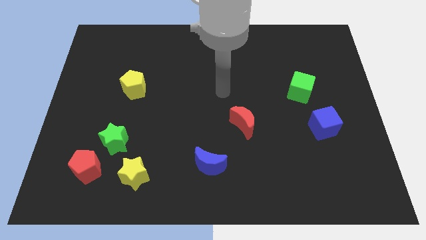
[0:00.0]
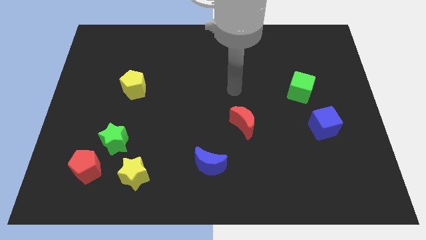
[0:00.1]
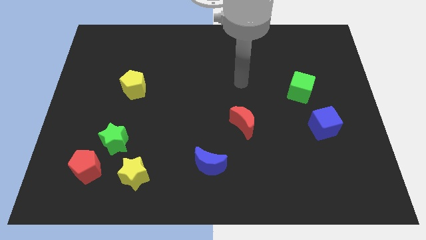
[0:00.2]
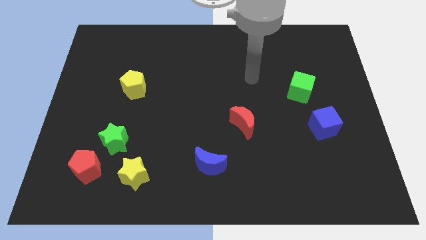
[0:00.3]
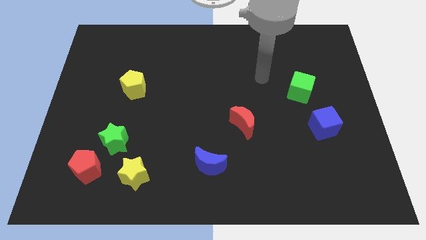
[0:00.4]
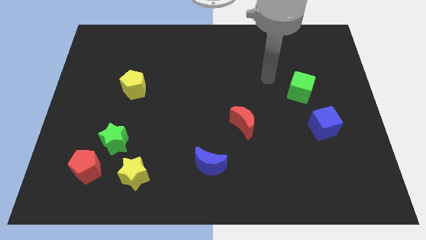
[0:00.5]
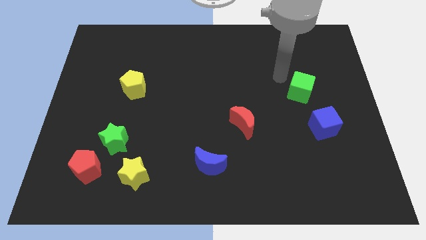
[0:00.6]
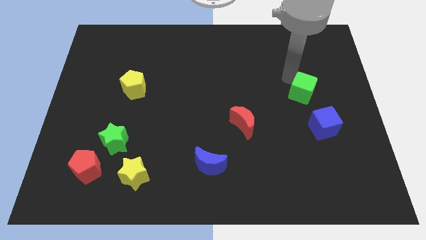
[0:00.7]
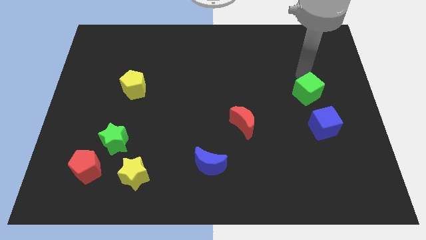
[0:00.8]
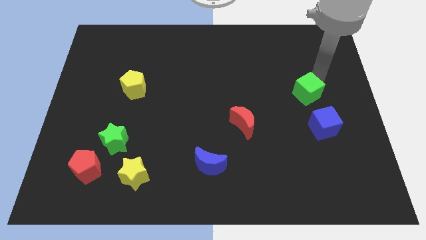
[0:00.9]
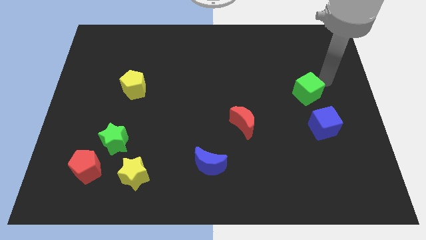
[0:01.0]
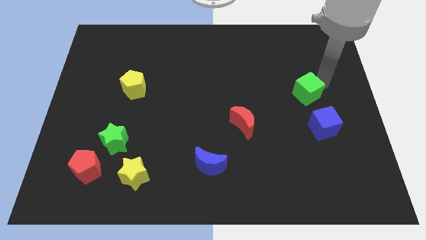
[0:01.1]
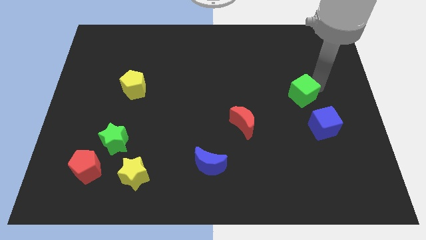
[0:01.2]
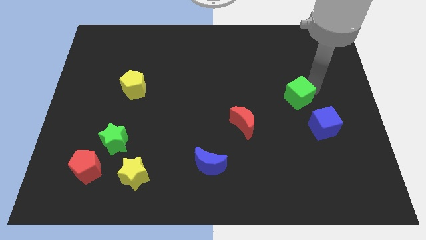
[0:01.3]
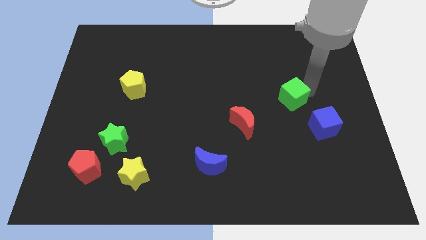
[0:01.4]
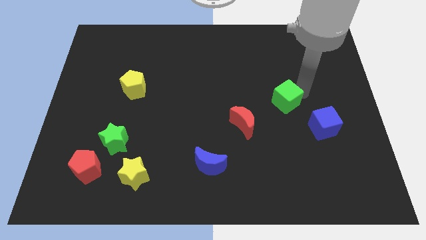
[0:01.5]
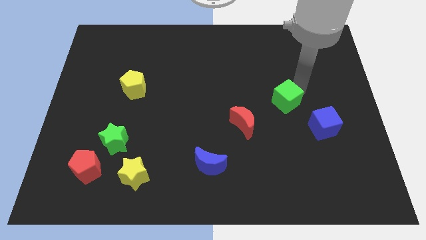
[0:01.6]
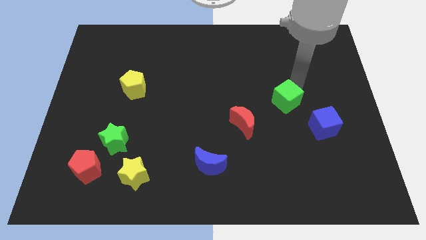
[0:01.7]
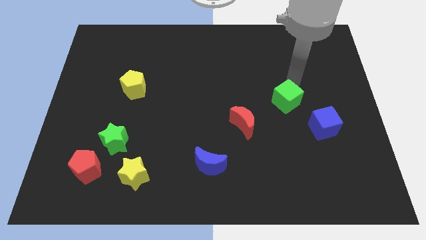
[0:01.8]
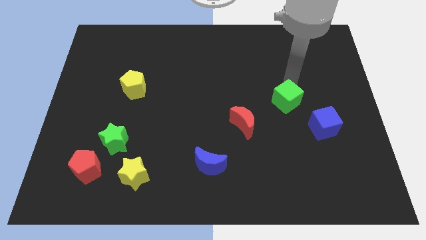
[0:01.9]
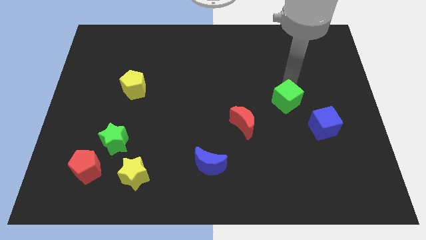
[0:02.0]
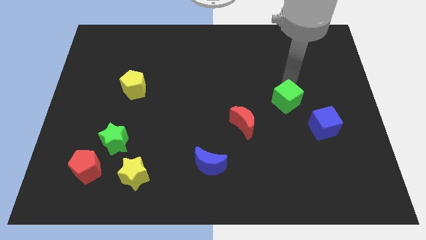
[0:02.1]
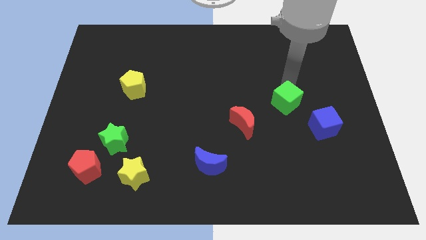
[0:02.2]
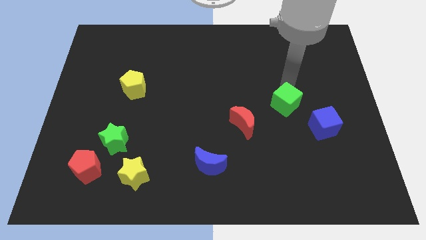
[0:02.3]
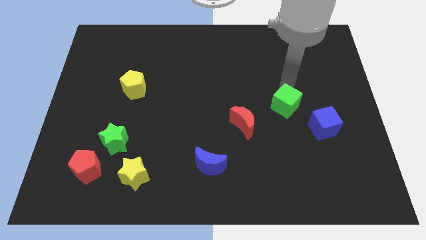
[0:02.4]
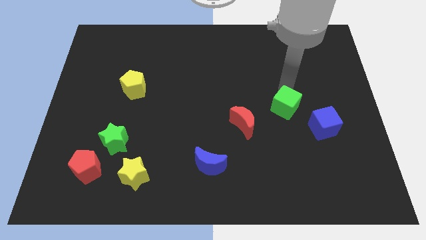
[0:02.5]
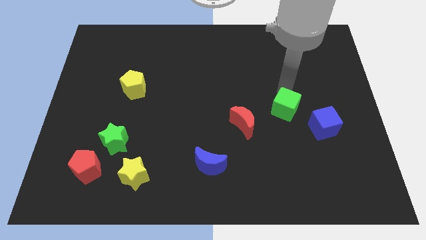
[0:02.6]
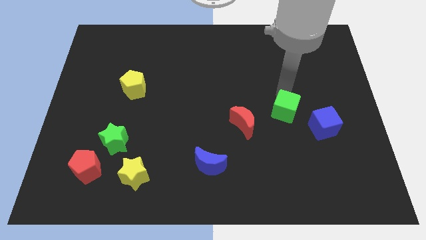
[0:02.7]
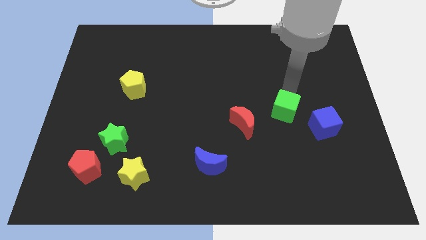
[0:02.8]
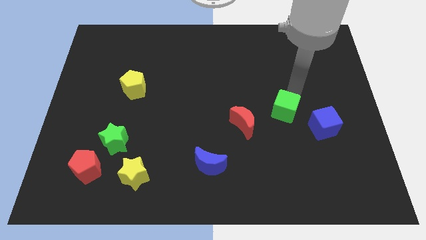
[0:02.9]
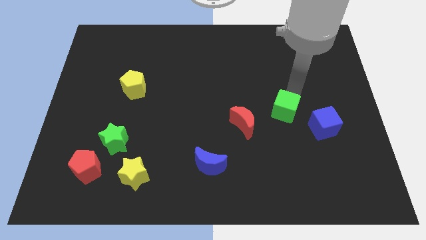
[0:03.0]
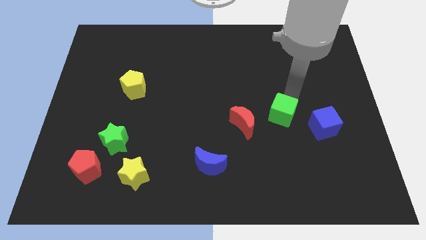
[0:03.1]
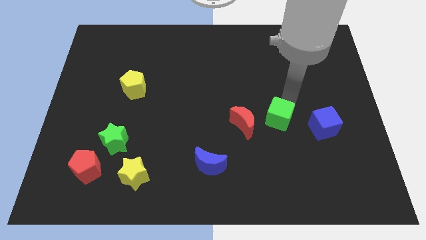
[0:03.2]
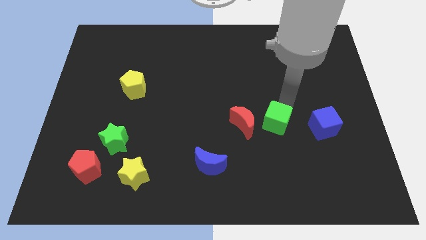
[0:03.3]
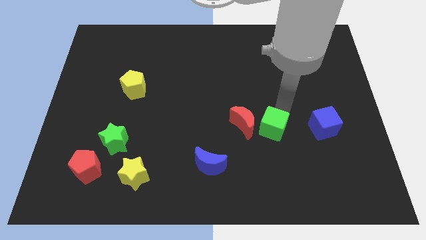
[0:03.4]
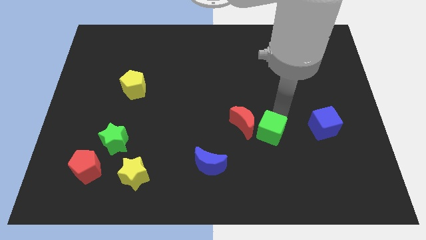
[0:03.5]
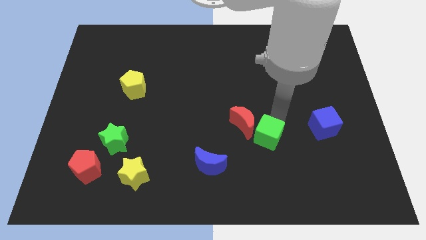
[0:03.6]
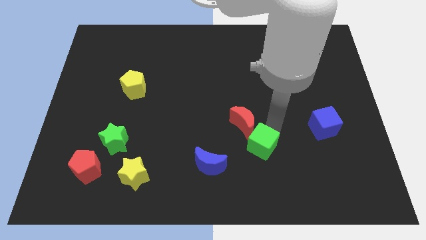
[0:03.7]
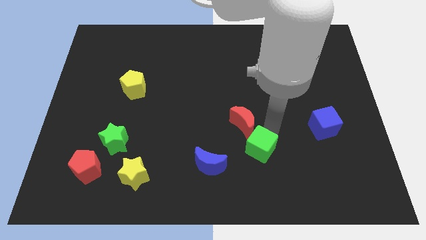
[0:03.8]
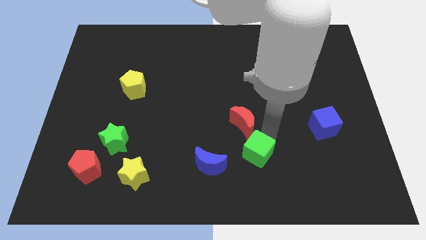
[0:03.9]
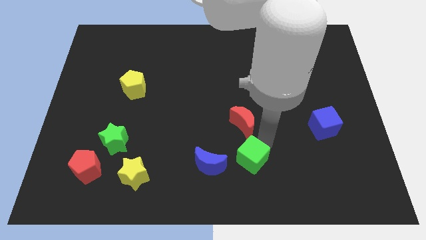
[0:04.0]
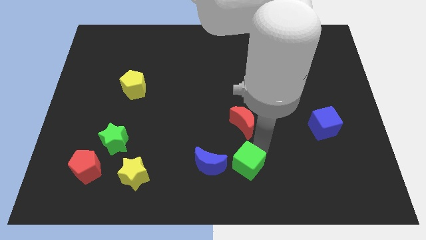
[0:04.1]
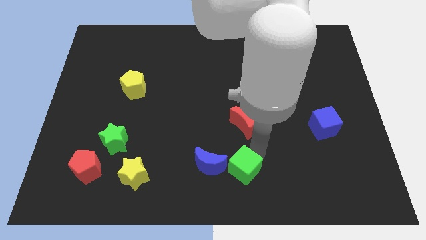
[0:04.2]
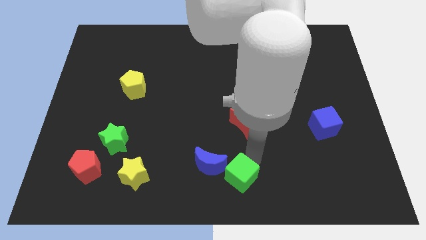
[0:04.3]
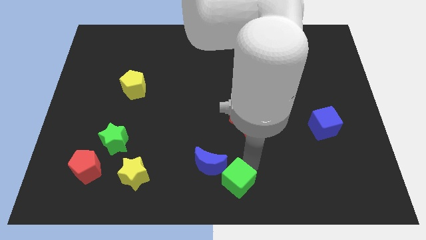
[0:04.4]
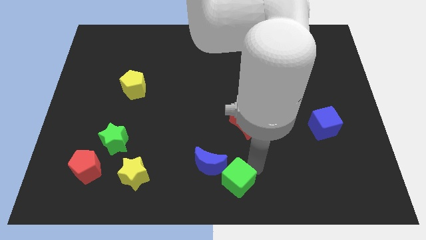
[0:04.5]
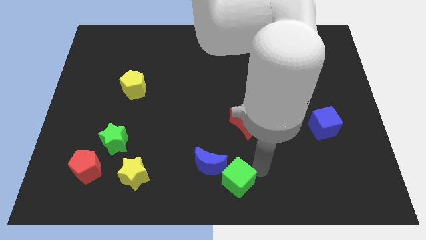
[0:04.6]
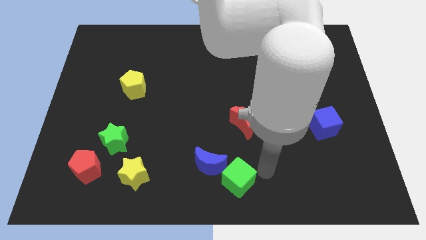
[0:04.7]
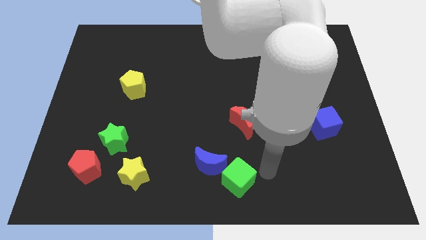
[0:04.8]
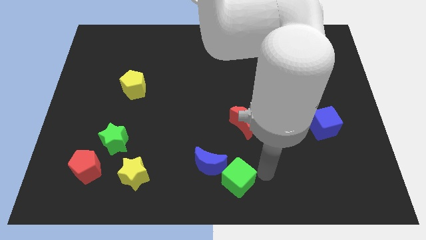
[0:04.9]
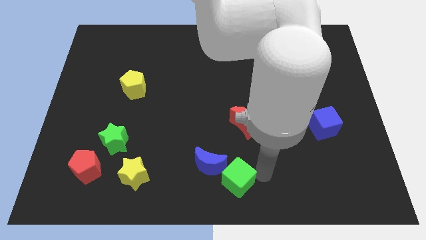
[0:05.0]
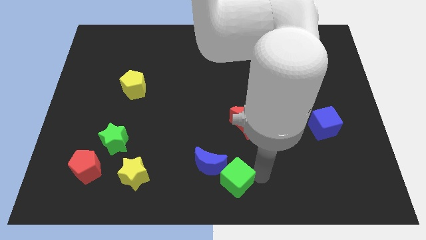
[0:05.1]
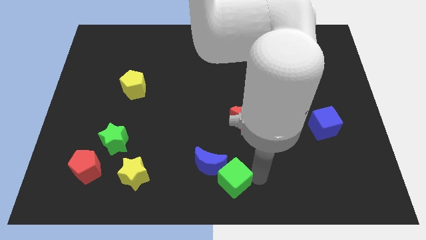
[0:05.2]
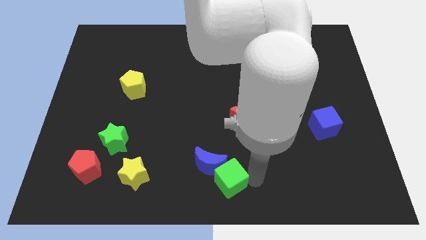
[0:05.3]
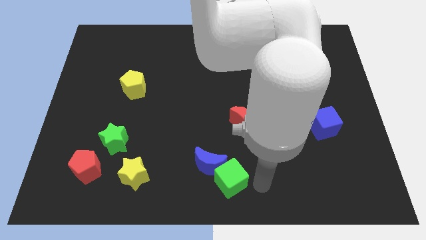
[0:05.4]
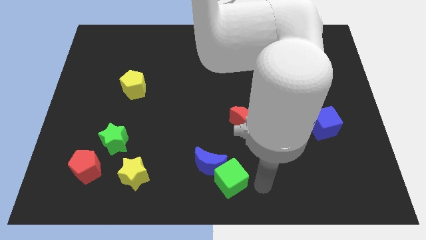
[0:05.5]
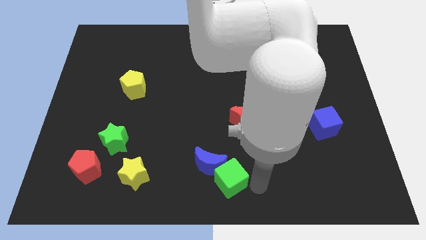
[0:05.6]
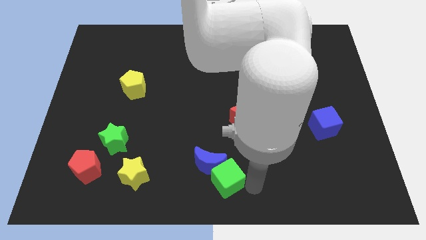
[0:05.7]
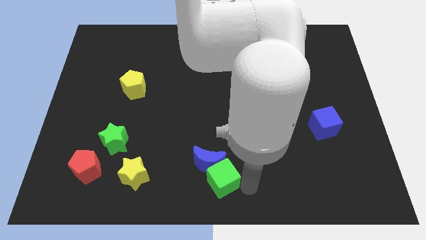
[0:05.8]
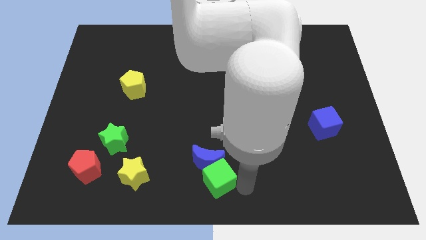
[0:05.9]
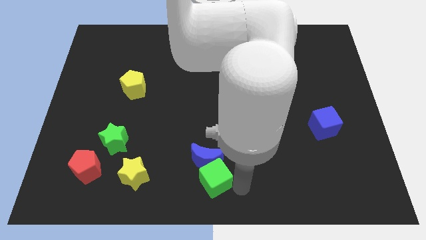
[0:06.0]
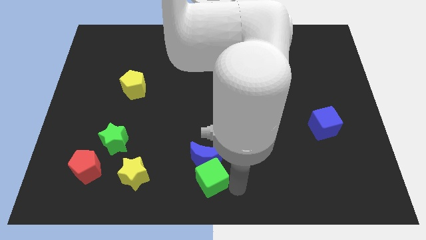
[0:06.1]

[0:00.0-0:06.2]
push the green cube just right of the yellow star

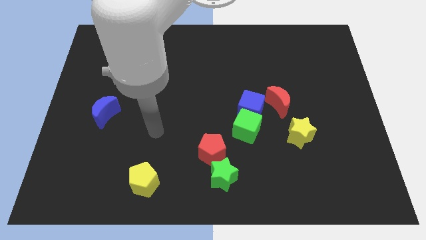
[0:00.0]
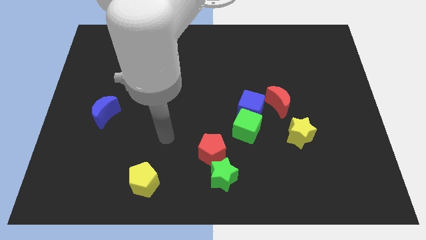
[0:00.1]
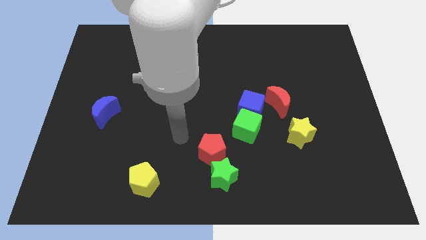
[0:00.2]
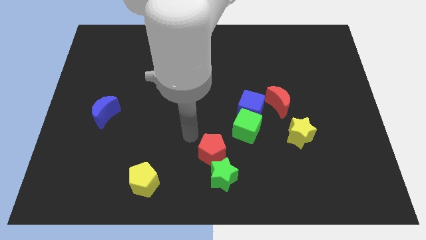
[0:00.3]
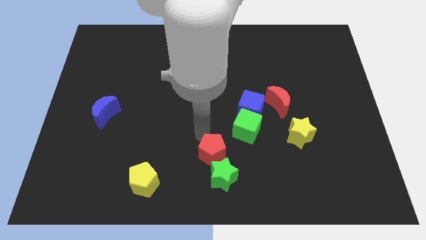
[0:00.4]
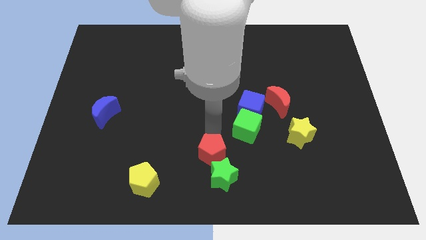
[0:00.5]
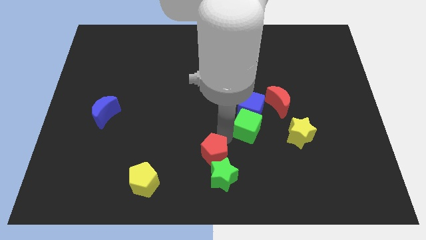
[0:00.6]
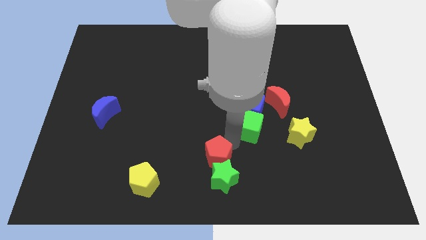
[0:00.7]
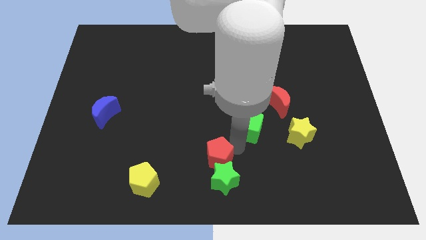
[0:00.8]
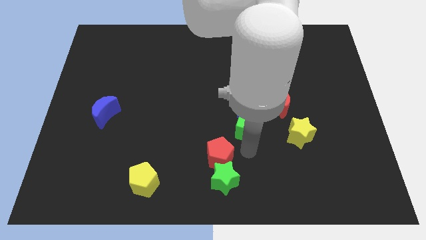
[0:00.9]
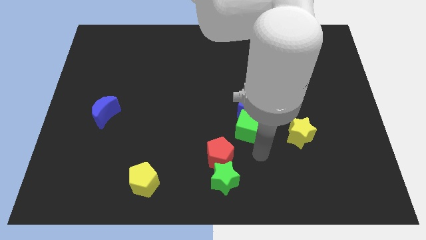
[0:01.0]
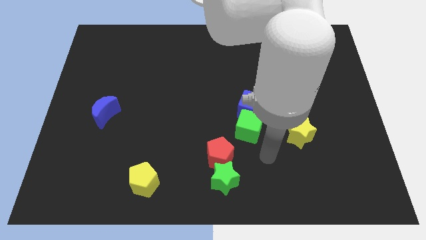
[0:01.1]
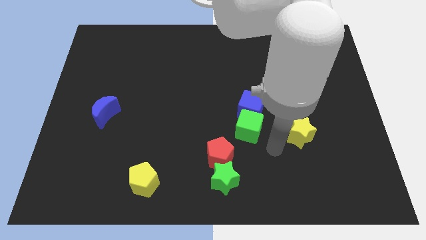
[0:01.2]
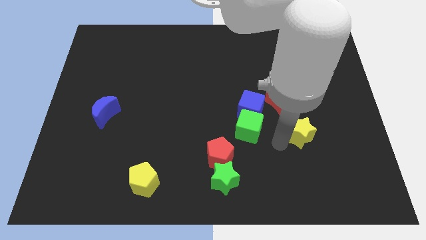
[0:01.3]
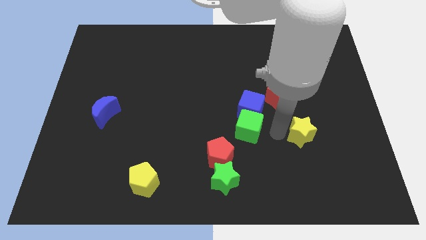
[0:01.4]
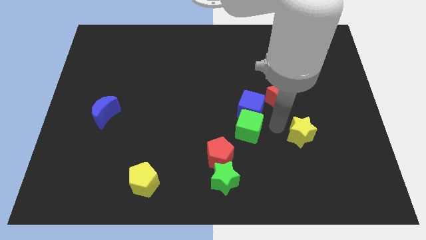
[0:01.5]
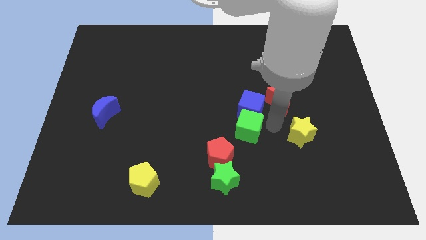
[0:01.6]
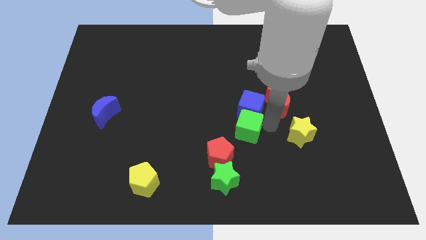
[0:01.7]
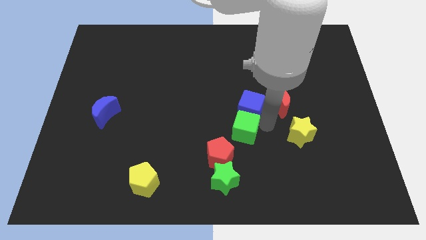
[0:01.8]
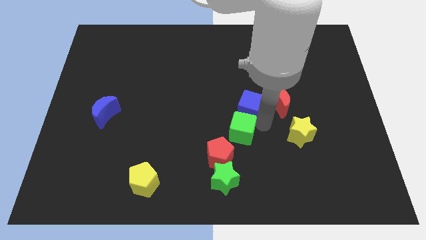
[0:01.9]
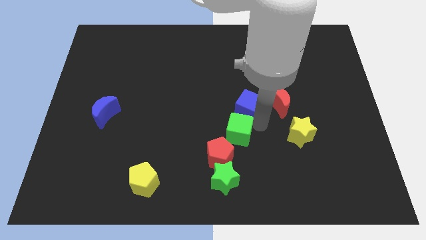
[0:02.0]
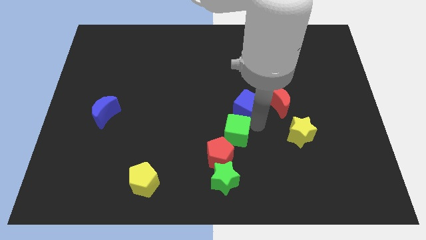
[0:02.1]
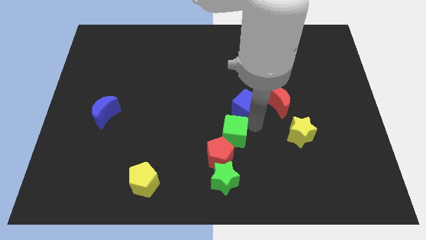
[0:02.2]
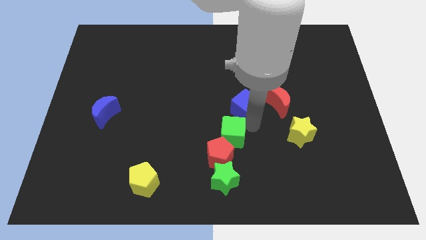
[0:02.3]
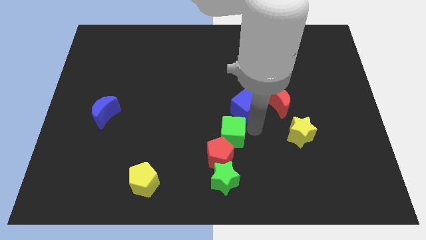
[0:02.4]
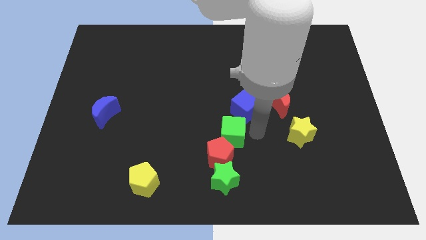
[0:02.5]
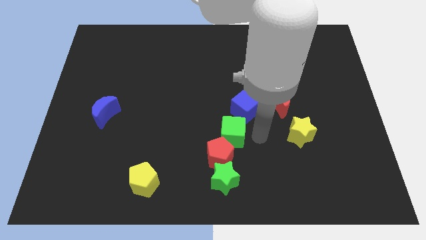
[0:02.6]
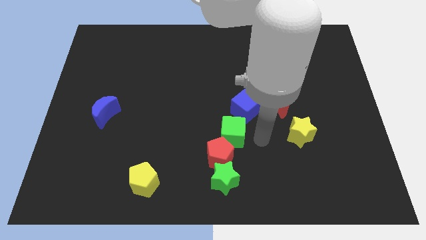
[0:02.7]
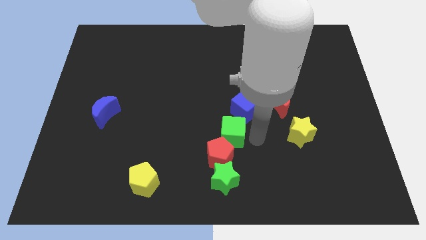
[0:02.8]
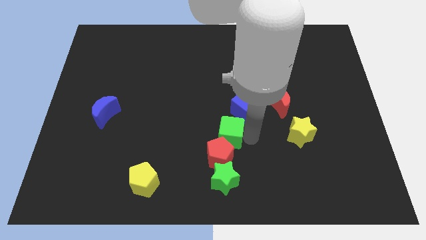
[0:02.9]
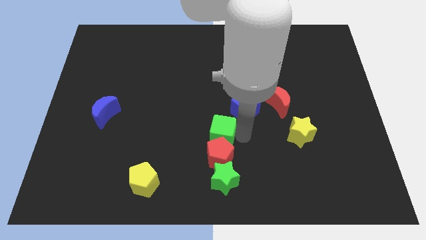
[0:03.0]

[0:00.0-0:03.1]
push the green cube to the top left of the red pentagon
